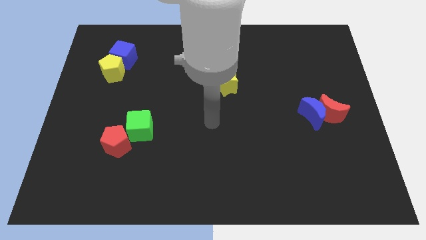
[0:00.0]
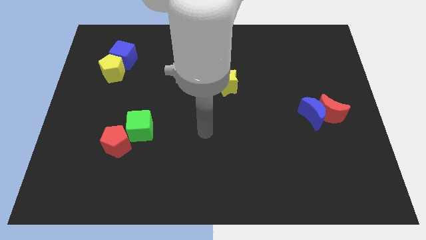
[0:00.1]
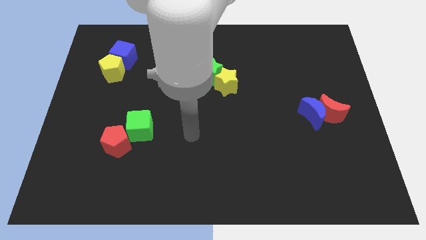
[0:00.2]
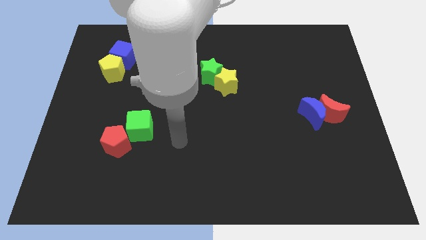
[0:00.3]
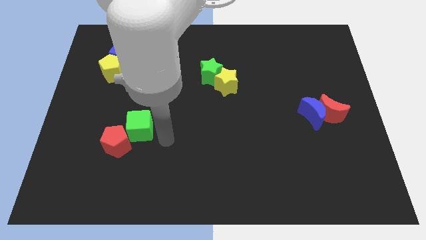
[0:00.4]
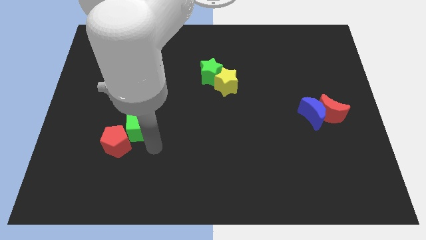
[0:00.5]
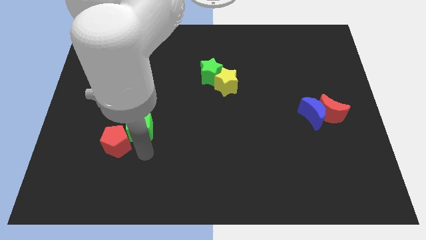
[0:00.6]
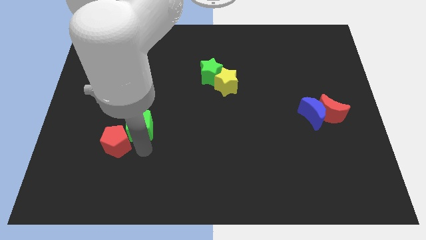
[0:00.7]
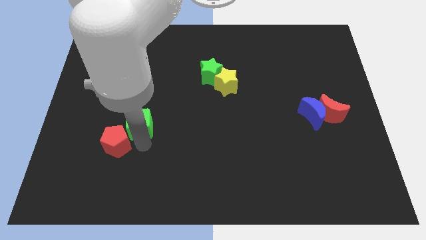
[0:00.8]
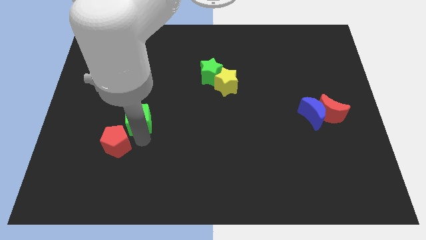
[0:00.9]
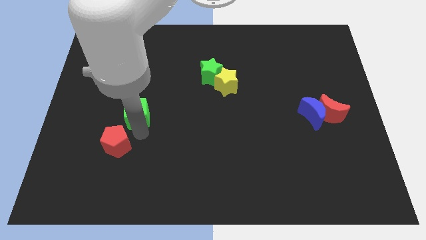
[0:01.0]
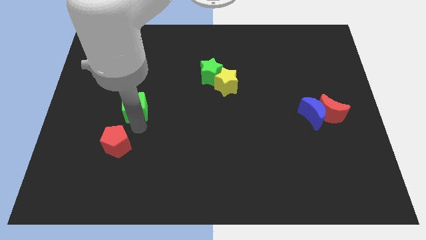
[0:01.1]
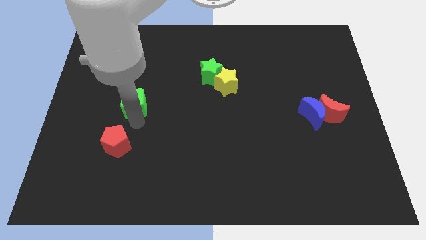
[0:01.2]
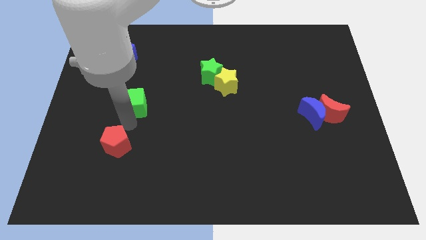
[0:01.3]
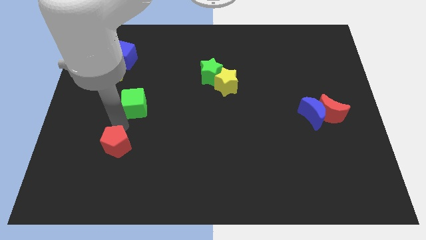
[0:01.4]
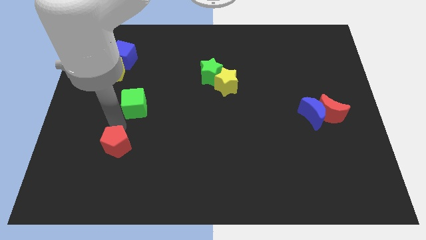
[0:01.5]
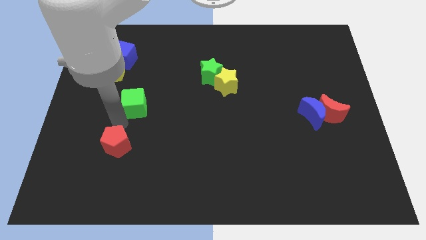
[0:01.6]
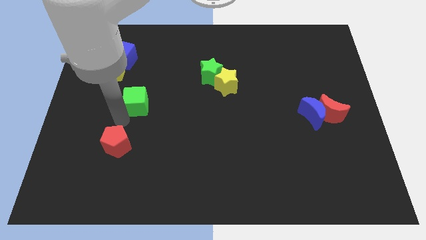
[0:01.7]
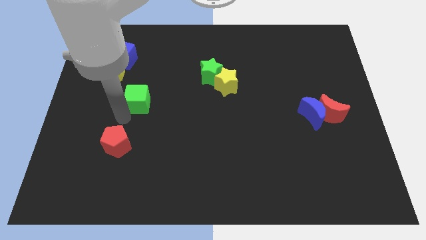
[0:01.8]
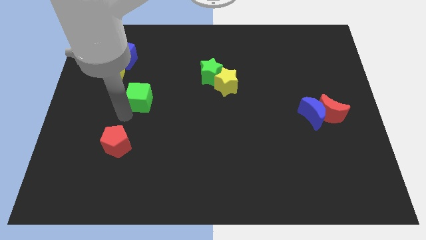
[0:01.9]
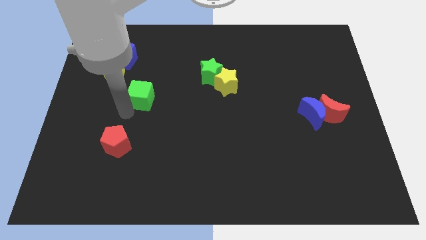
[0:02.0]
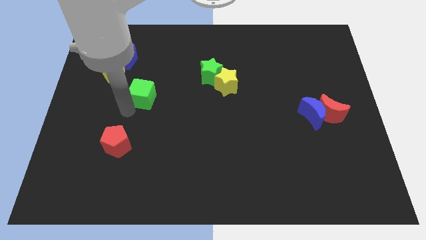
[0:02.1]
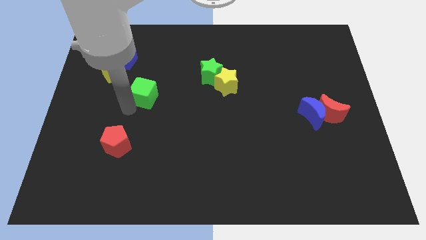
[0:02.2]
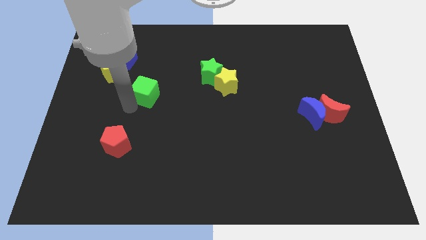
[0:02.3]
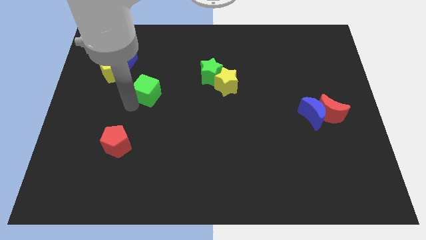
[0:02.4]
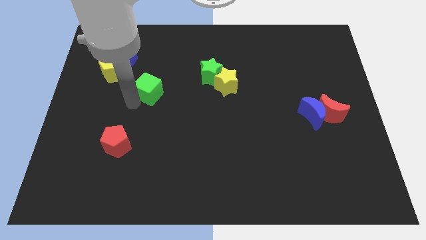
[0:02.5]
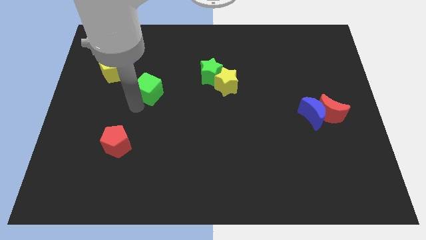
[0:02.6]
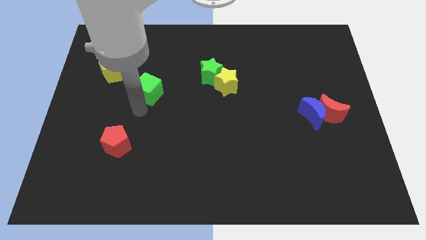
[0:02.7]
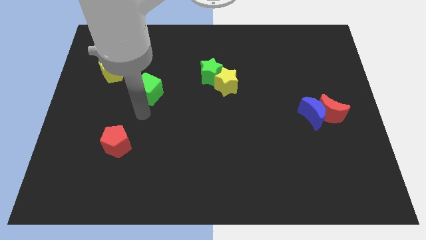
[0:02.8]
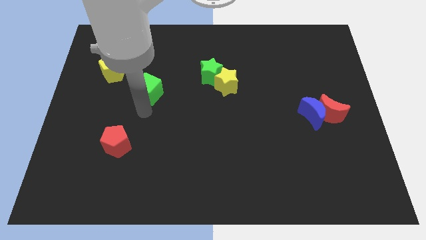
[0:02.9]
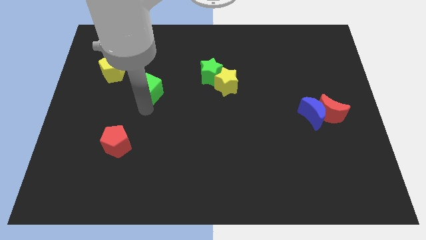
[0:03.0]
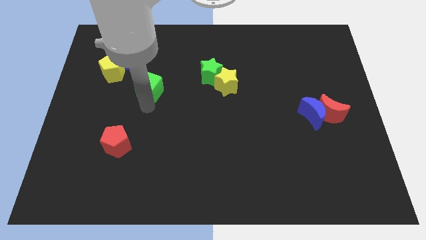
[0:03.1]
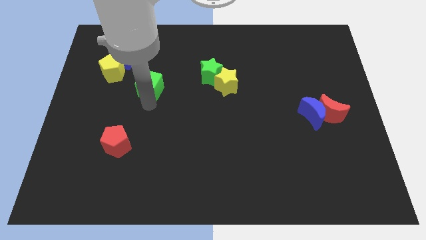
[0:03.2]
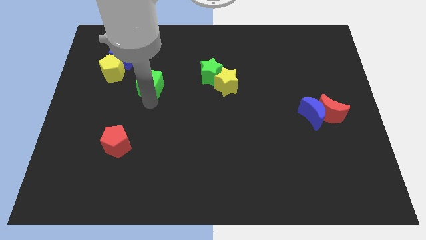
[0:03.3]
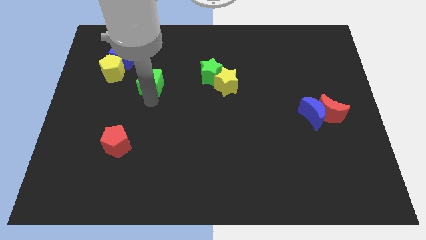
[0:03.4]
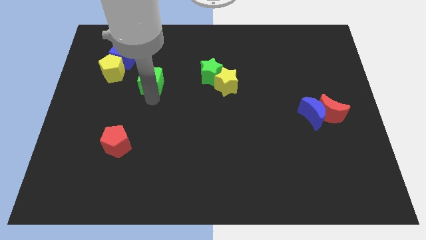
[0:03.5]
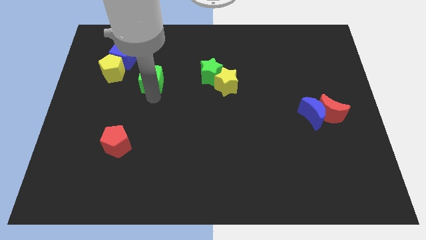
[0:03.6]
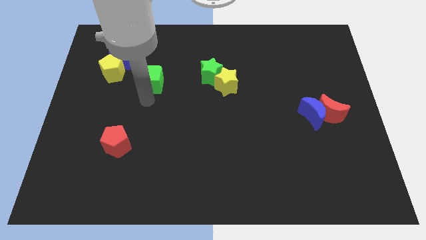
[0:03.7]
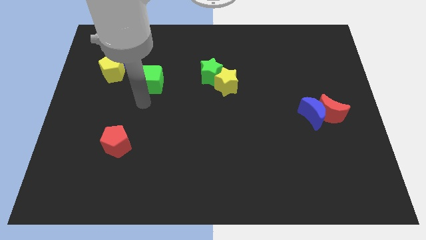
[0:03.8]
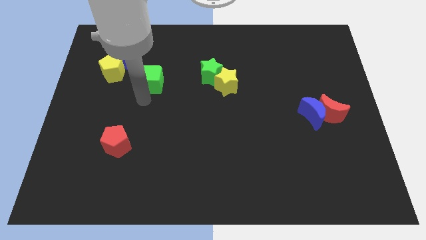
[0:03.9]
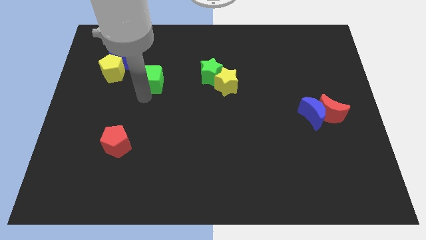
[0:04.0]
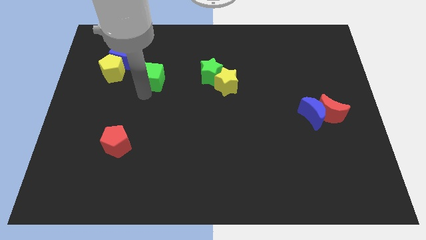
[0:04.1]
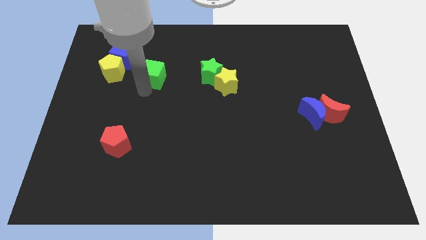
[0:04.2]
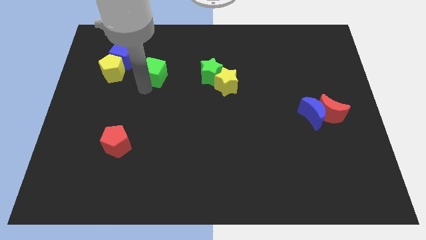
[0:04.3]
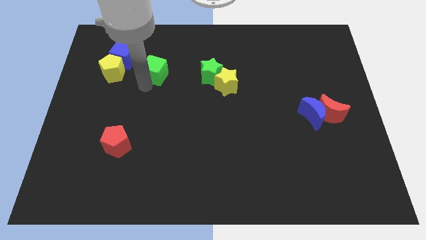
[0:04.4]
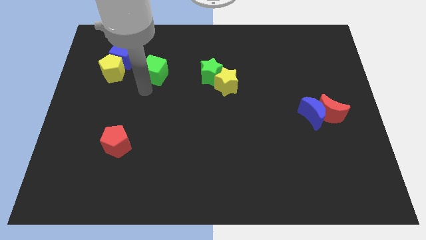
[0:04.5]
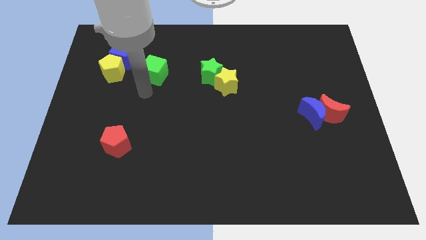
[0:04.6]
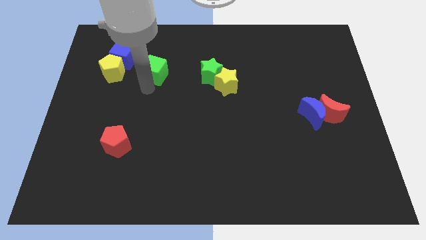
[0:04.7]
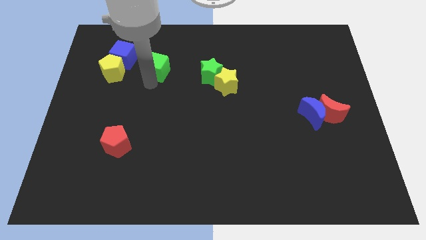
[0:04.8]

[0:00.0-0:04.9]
slide the green cube right of the blue cube

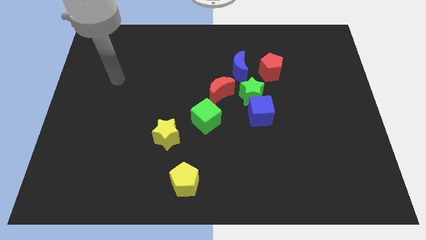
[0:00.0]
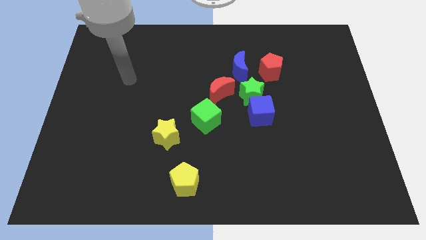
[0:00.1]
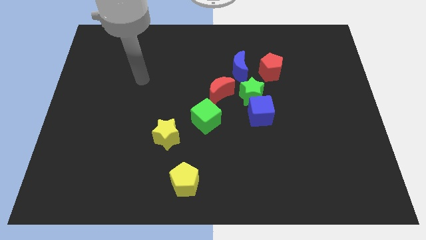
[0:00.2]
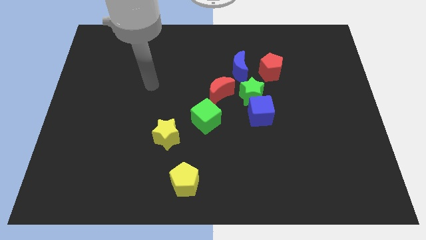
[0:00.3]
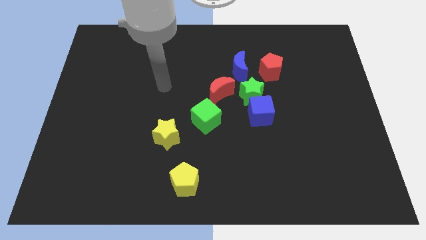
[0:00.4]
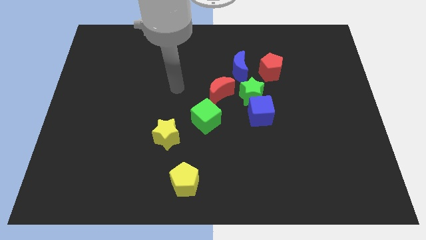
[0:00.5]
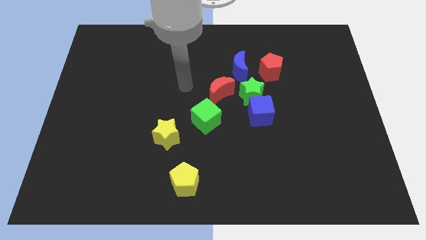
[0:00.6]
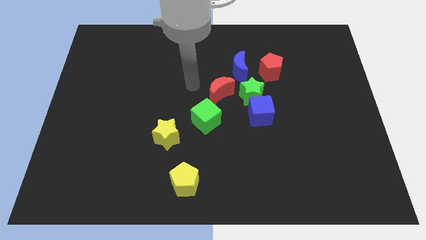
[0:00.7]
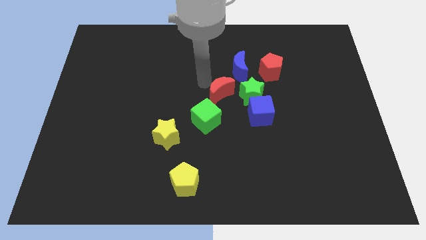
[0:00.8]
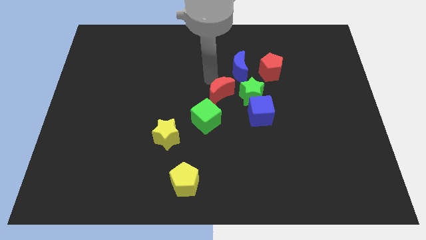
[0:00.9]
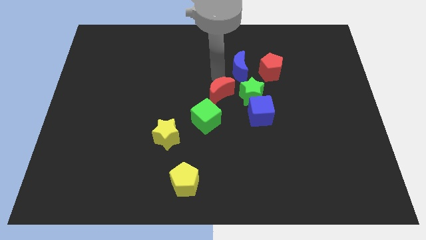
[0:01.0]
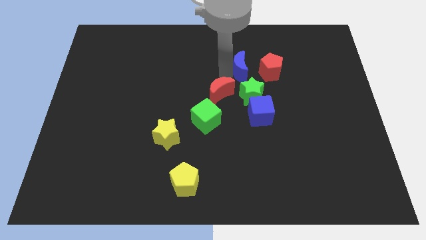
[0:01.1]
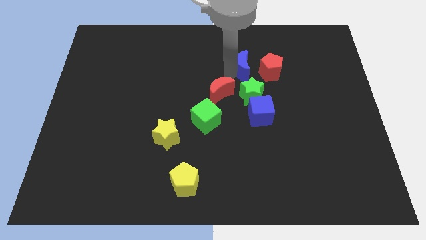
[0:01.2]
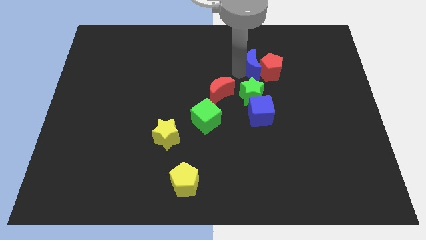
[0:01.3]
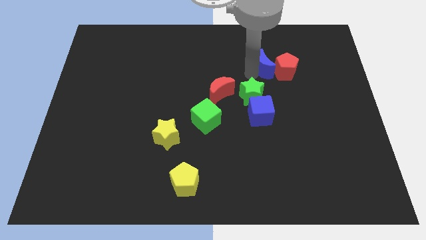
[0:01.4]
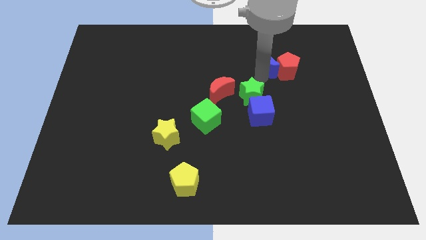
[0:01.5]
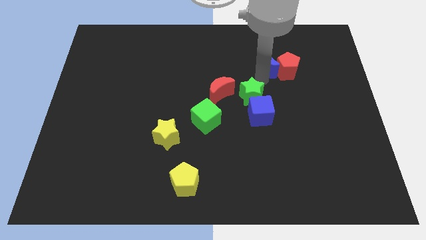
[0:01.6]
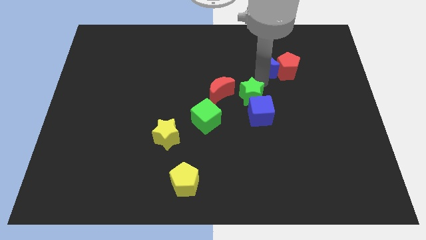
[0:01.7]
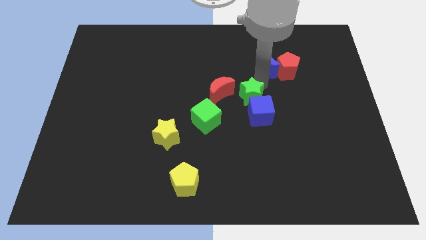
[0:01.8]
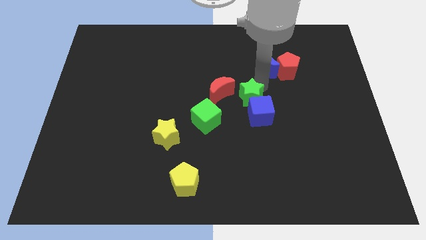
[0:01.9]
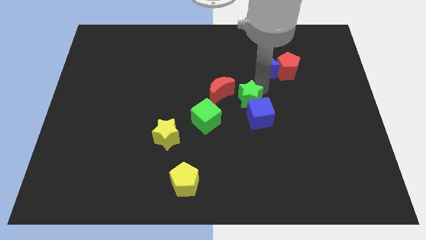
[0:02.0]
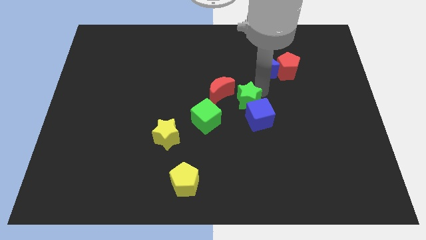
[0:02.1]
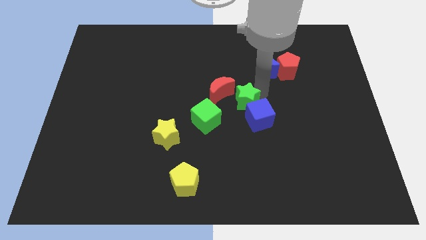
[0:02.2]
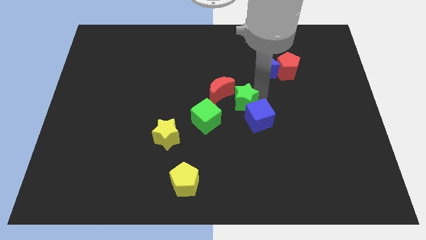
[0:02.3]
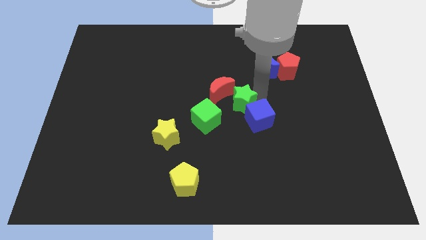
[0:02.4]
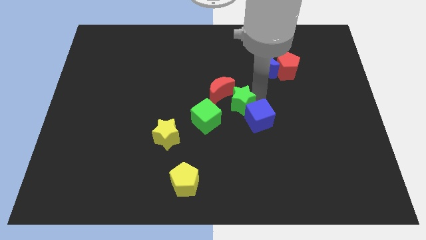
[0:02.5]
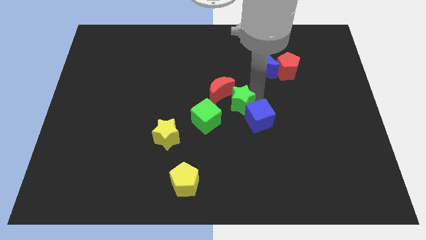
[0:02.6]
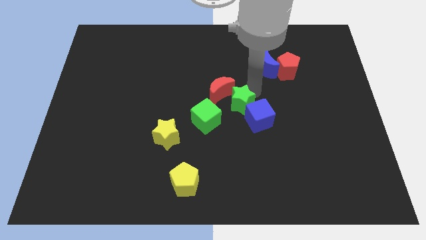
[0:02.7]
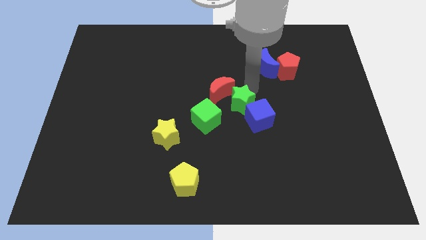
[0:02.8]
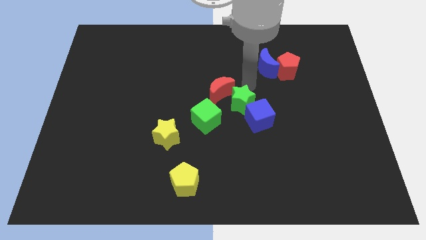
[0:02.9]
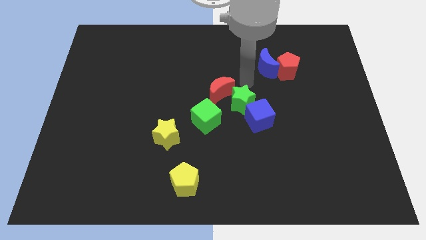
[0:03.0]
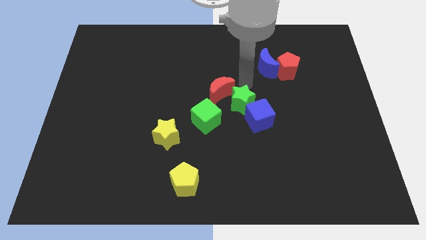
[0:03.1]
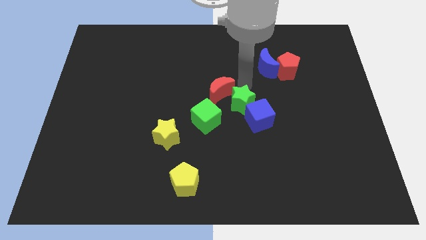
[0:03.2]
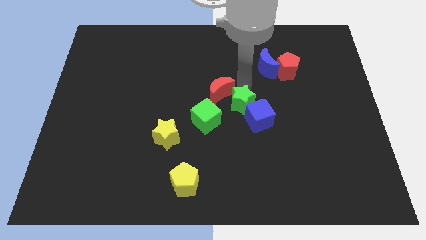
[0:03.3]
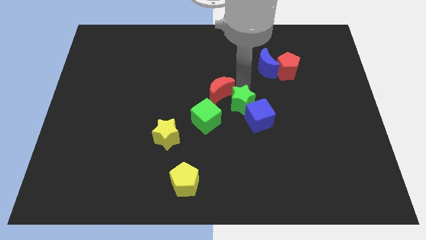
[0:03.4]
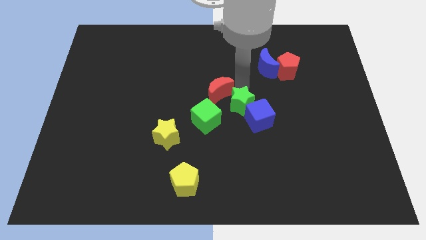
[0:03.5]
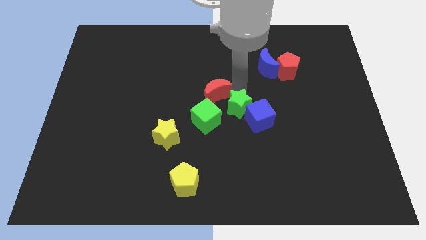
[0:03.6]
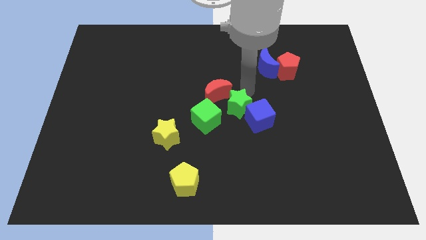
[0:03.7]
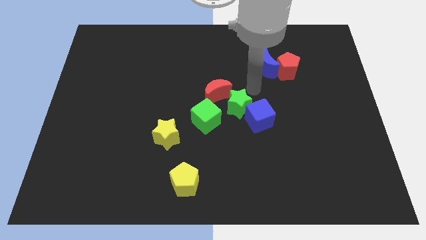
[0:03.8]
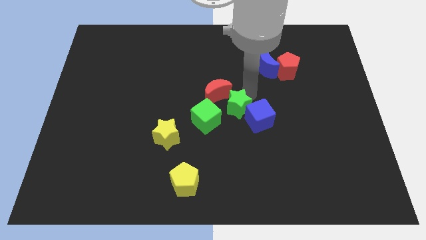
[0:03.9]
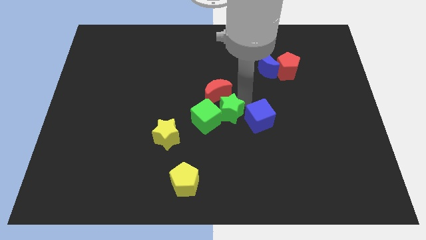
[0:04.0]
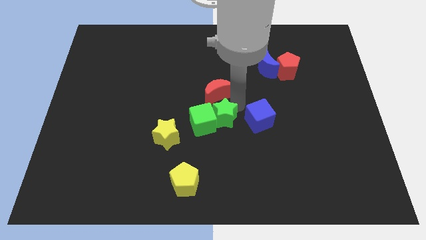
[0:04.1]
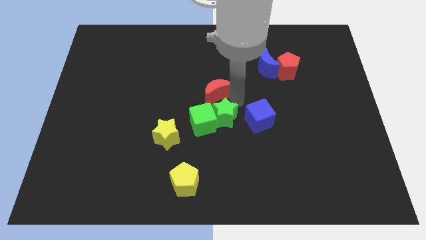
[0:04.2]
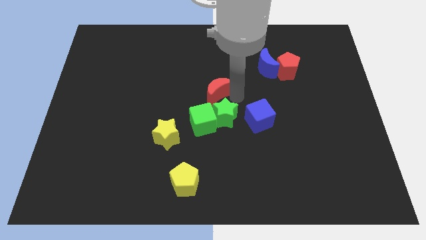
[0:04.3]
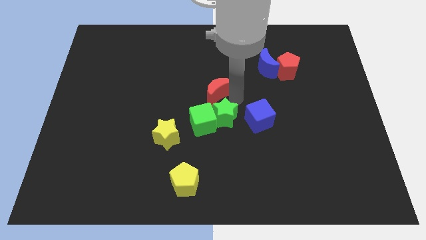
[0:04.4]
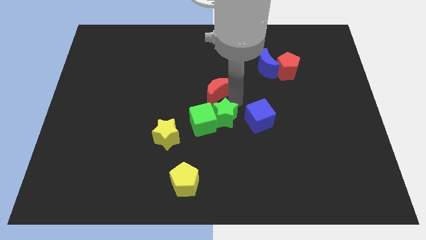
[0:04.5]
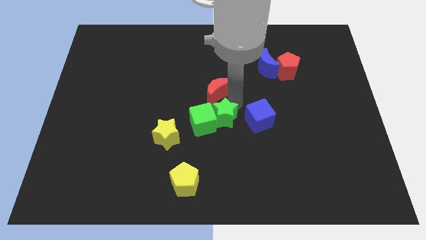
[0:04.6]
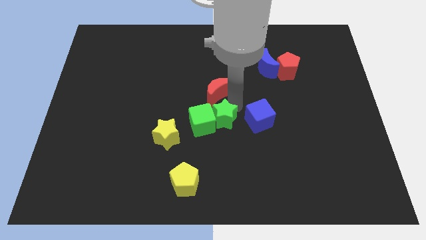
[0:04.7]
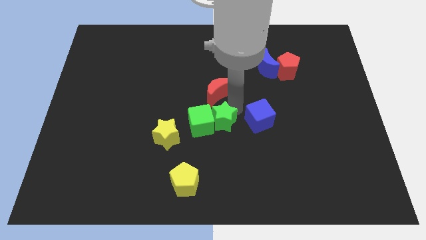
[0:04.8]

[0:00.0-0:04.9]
push the green star right of the yellow star
